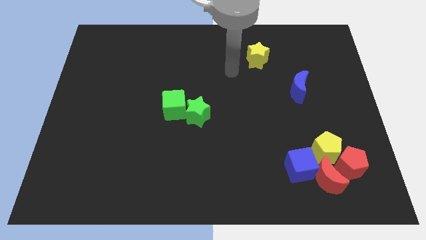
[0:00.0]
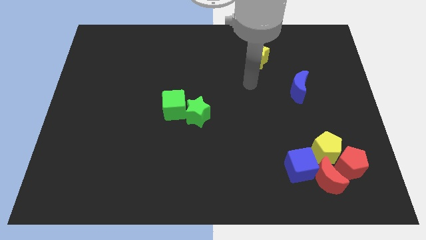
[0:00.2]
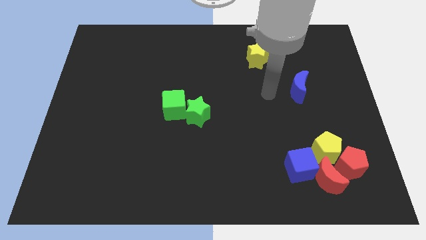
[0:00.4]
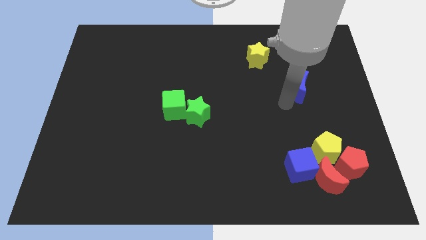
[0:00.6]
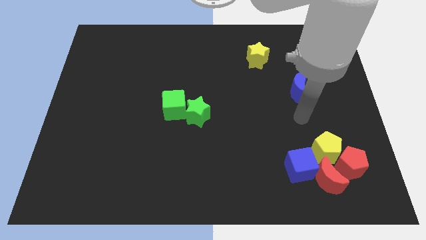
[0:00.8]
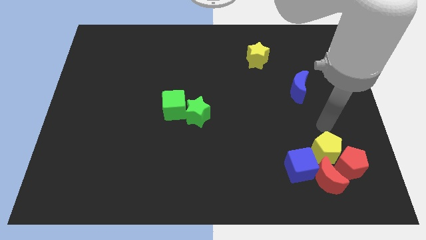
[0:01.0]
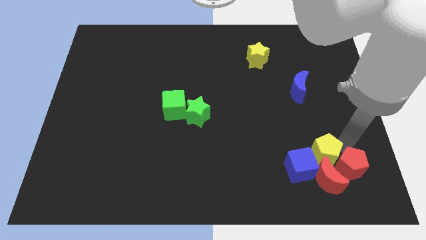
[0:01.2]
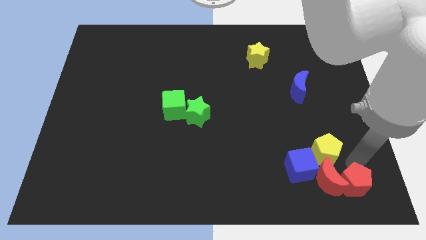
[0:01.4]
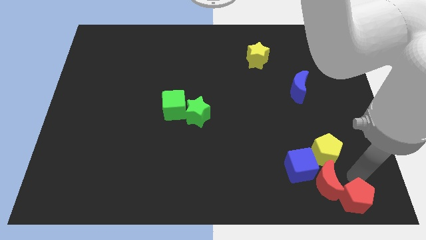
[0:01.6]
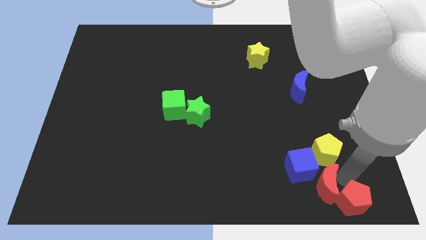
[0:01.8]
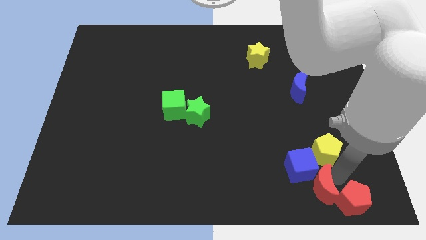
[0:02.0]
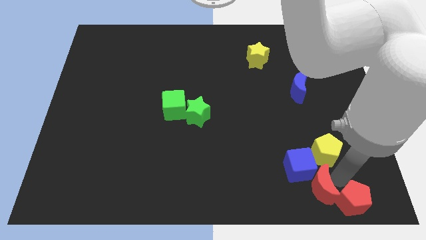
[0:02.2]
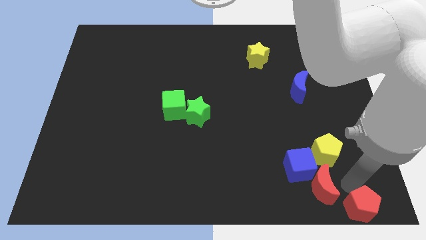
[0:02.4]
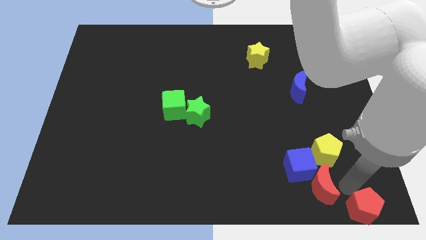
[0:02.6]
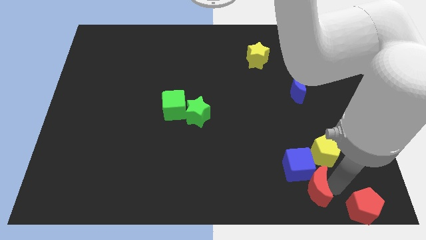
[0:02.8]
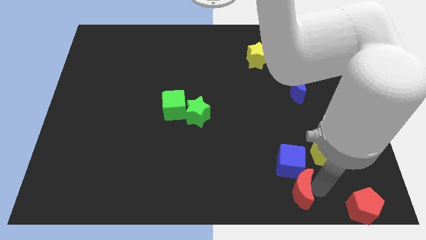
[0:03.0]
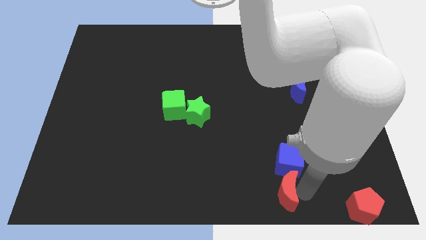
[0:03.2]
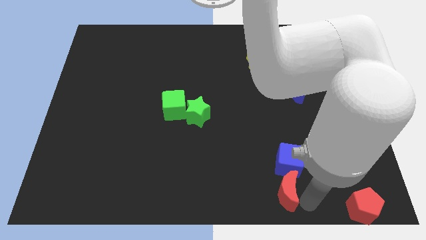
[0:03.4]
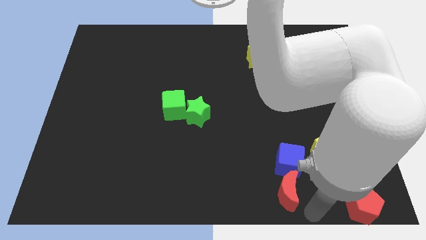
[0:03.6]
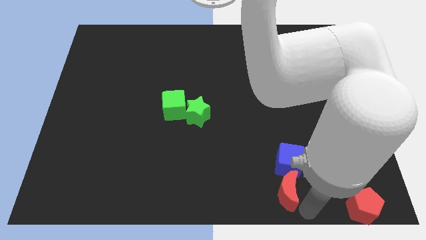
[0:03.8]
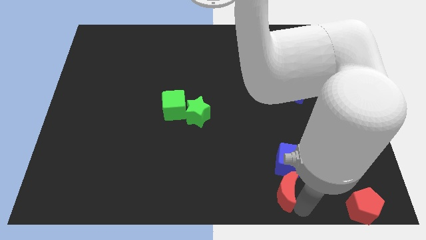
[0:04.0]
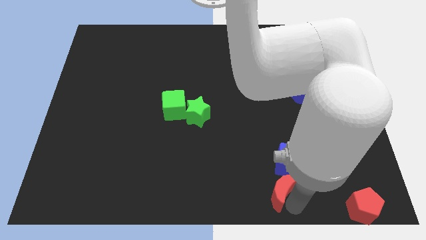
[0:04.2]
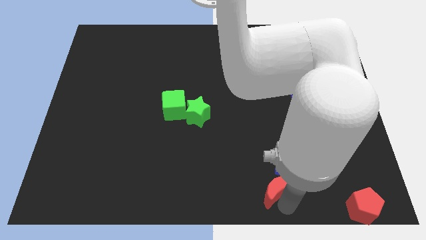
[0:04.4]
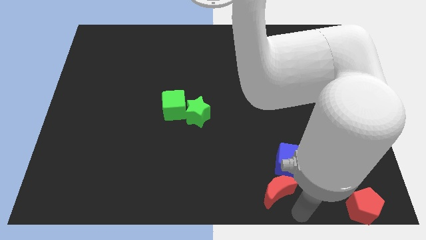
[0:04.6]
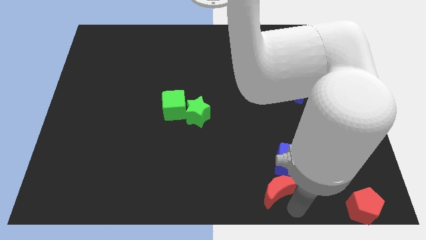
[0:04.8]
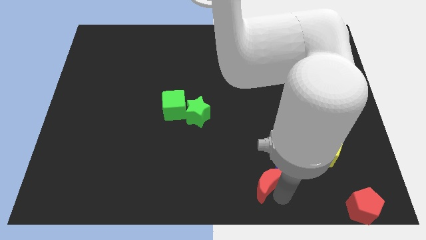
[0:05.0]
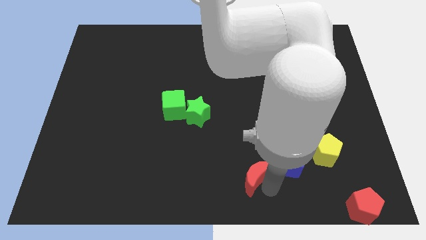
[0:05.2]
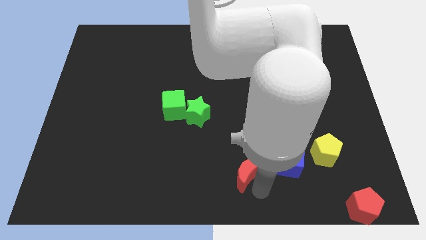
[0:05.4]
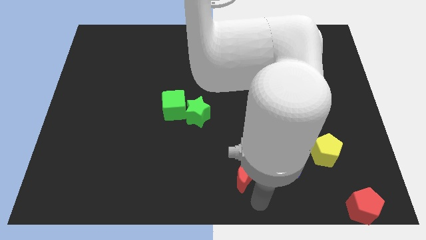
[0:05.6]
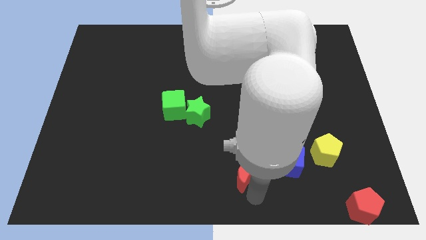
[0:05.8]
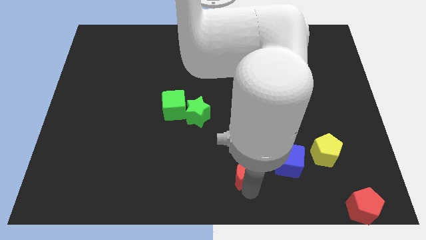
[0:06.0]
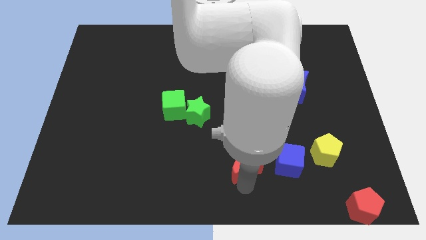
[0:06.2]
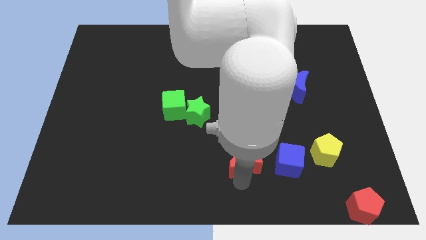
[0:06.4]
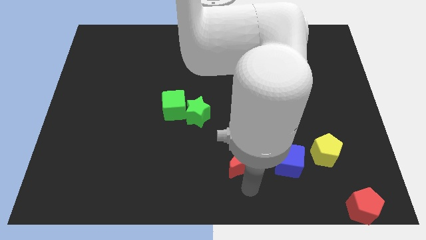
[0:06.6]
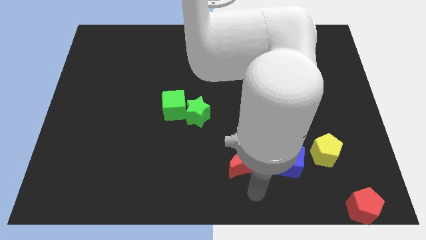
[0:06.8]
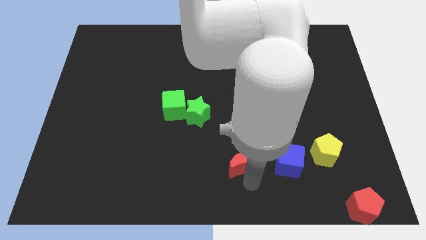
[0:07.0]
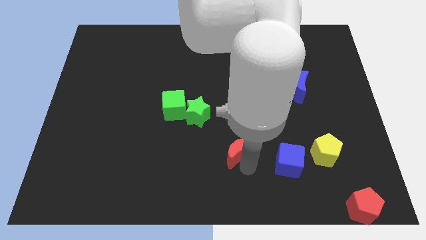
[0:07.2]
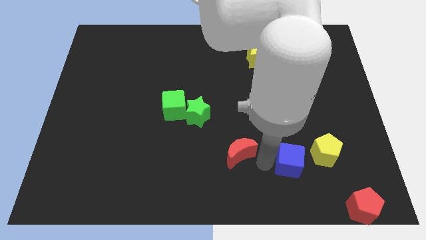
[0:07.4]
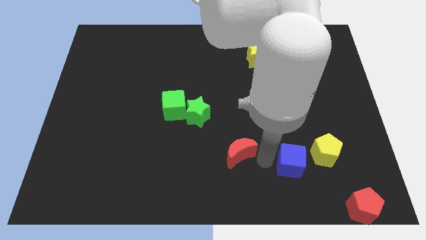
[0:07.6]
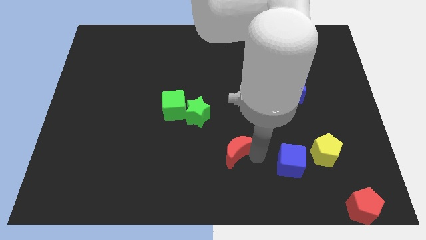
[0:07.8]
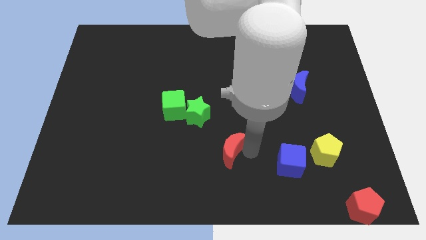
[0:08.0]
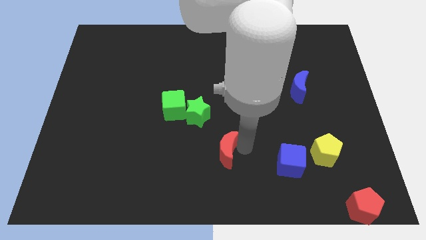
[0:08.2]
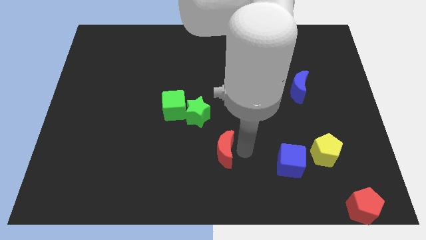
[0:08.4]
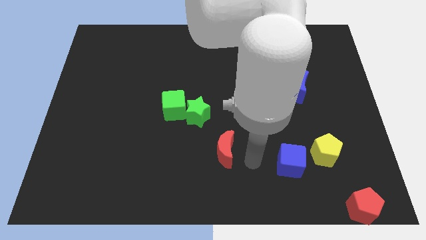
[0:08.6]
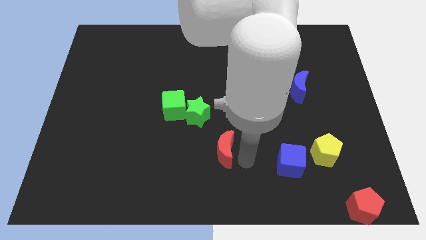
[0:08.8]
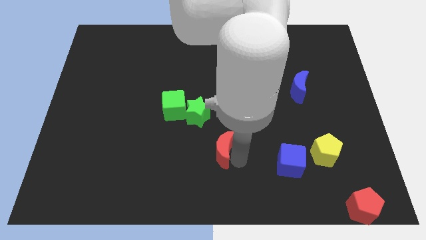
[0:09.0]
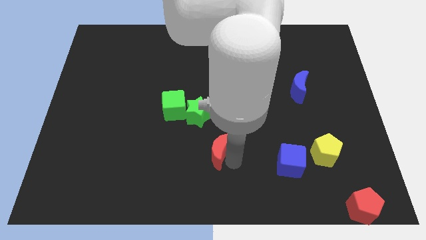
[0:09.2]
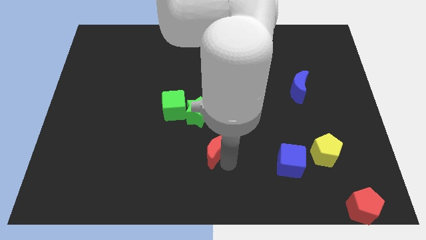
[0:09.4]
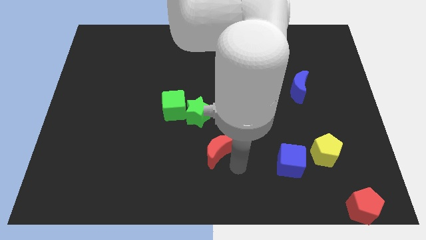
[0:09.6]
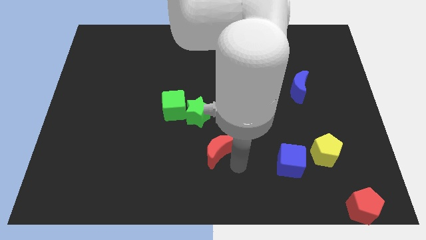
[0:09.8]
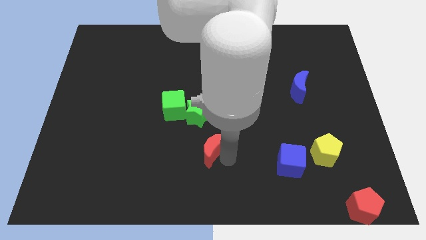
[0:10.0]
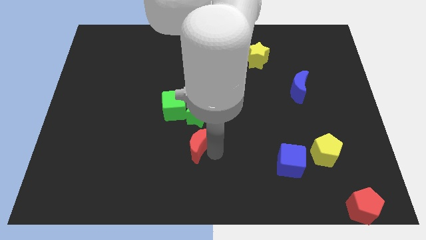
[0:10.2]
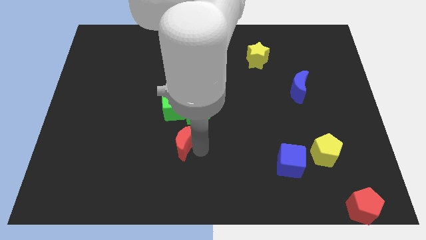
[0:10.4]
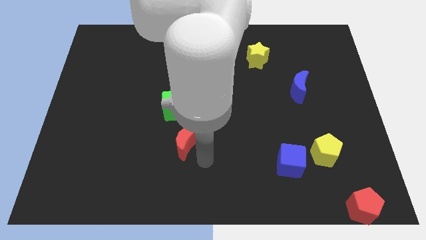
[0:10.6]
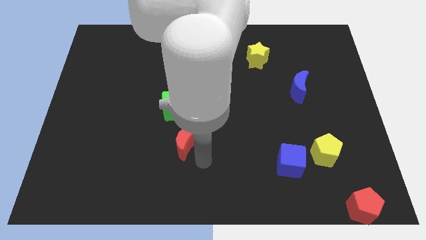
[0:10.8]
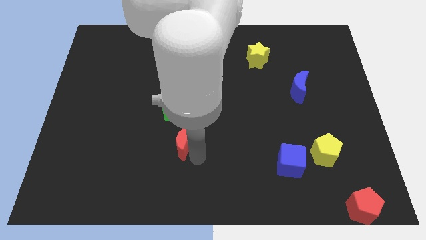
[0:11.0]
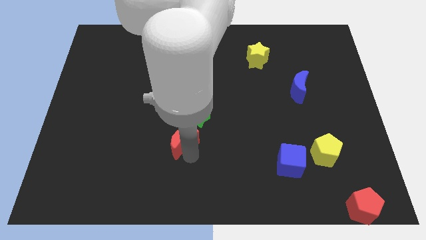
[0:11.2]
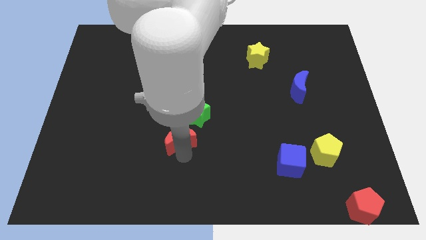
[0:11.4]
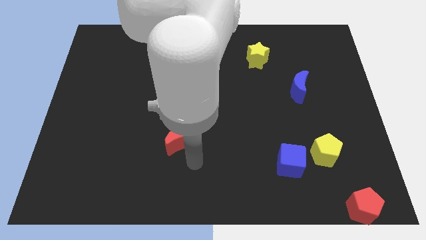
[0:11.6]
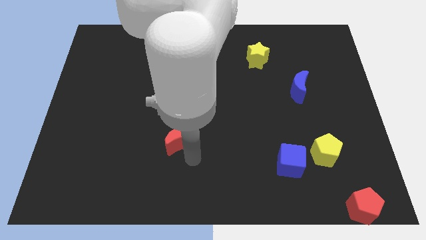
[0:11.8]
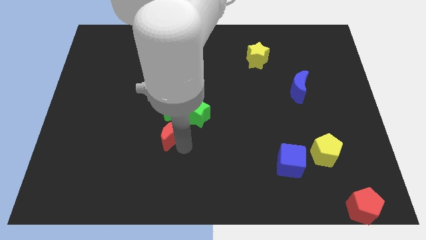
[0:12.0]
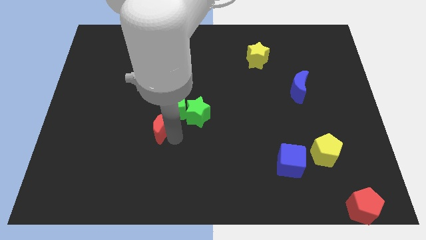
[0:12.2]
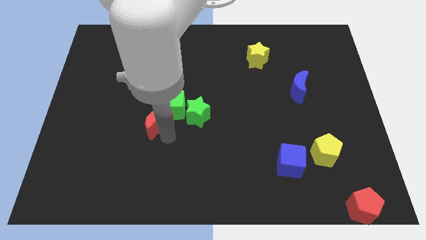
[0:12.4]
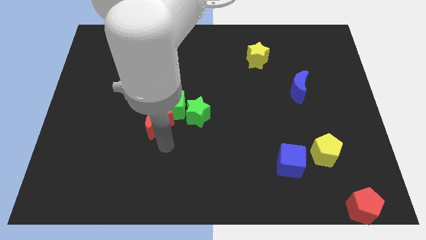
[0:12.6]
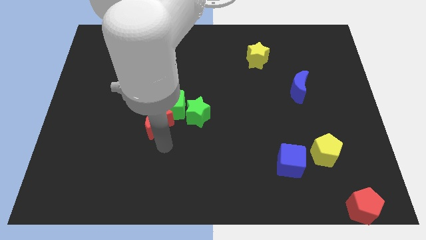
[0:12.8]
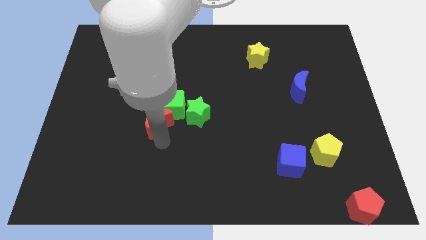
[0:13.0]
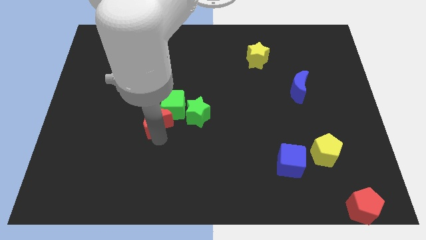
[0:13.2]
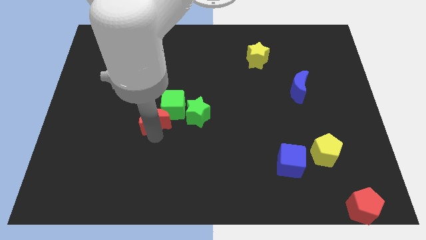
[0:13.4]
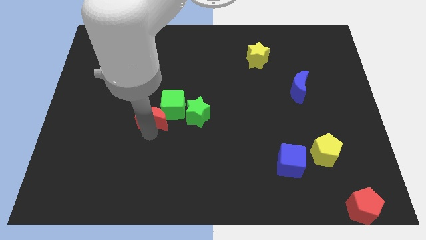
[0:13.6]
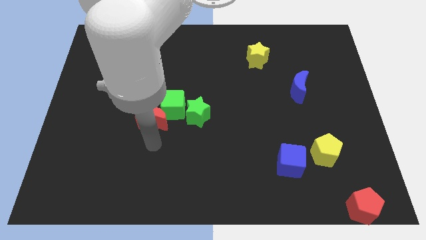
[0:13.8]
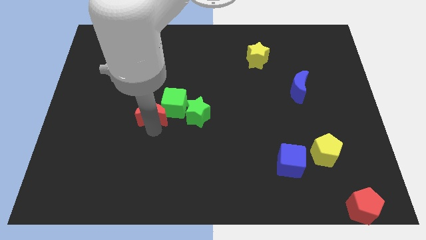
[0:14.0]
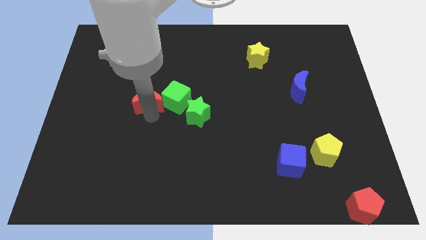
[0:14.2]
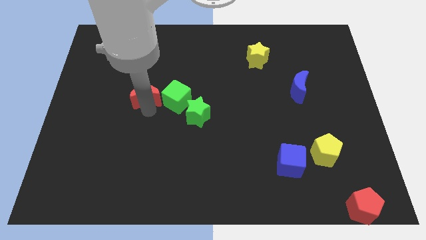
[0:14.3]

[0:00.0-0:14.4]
slide the red moon diagonally up and to the left of the green cube

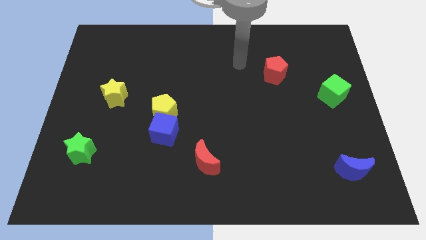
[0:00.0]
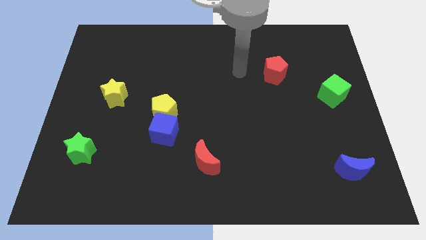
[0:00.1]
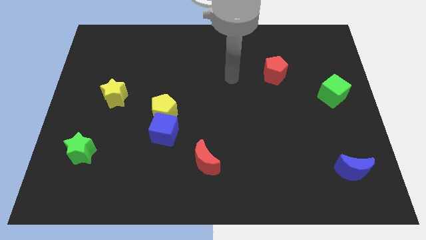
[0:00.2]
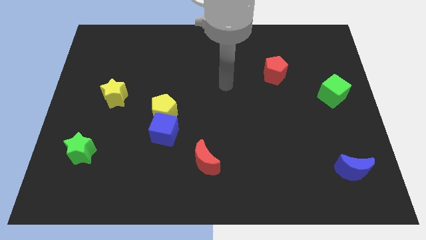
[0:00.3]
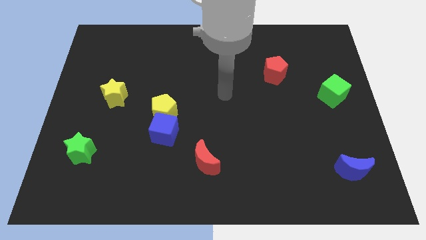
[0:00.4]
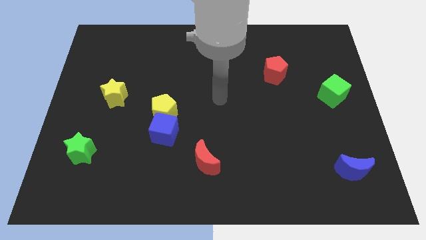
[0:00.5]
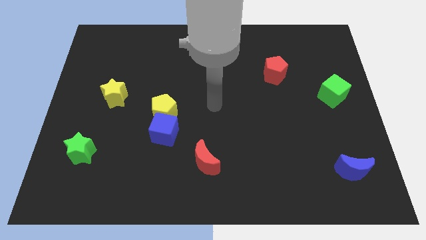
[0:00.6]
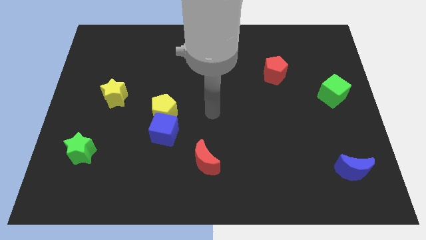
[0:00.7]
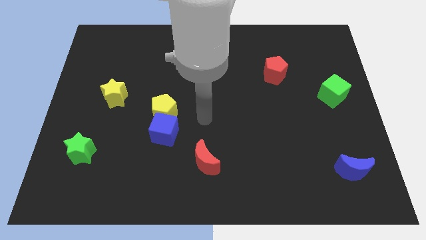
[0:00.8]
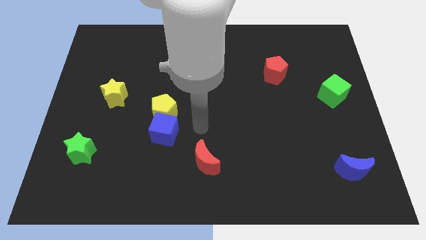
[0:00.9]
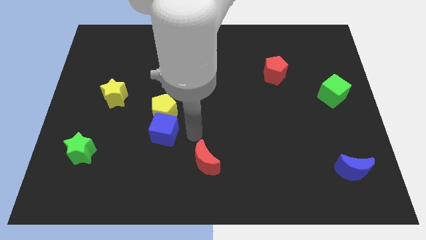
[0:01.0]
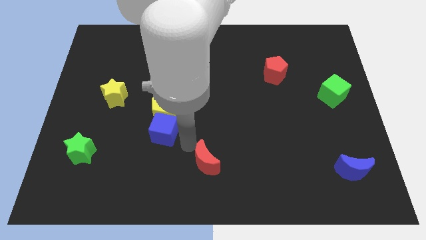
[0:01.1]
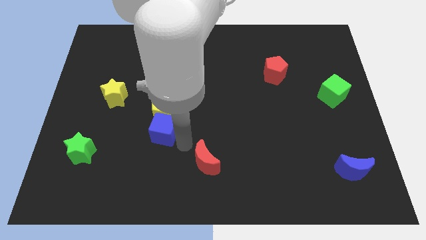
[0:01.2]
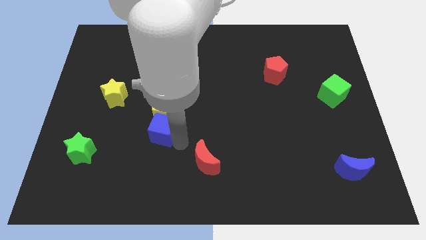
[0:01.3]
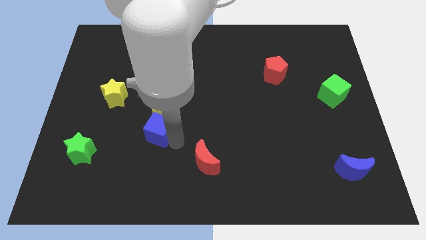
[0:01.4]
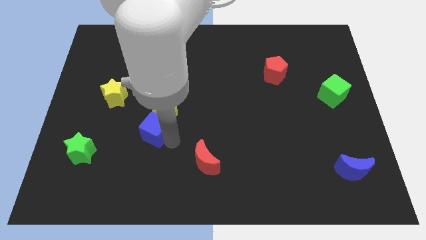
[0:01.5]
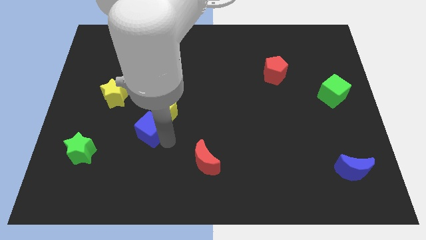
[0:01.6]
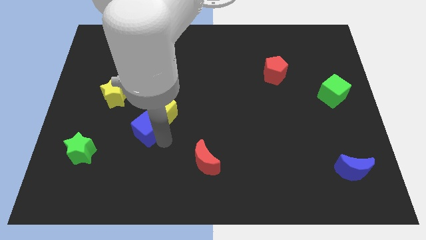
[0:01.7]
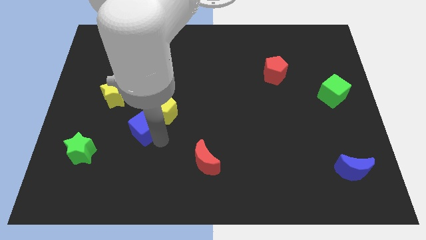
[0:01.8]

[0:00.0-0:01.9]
move the blue cube diagonally down and to the right of the yellow star
